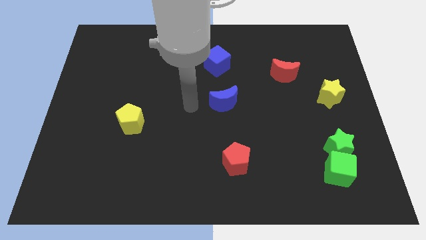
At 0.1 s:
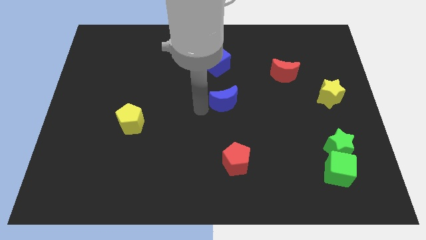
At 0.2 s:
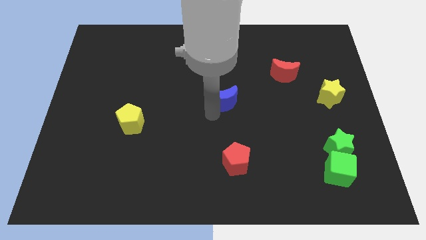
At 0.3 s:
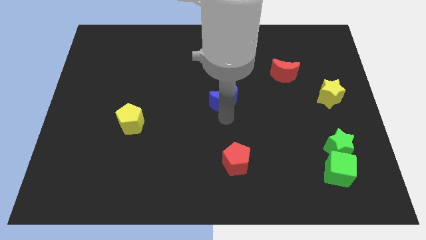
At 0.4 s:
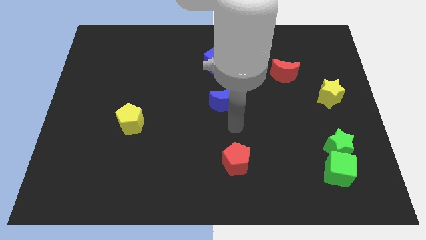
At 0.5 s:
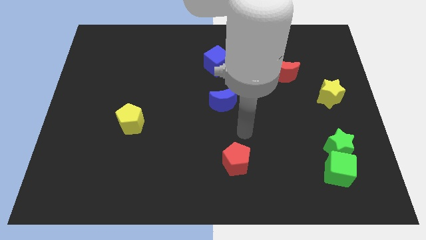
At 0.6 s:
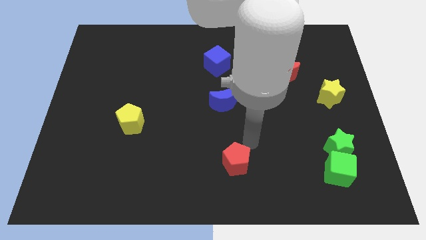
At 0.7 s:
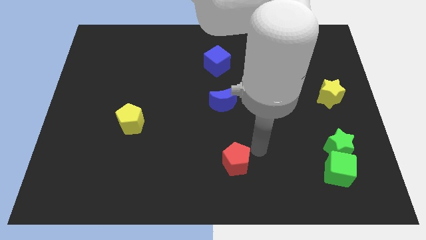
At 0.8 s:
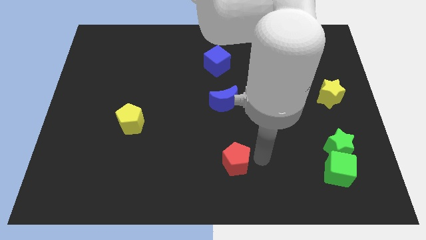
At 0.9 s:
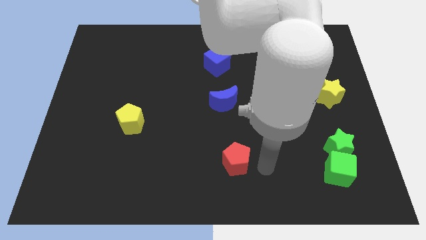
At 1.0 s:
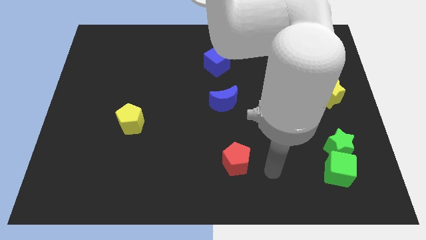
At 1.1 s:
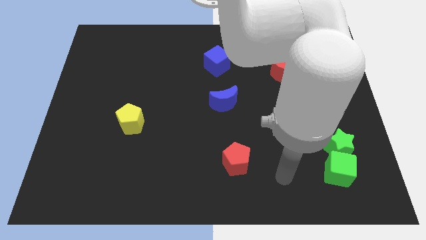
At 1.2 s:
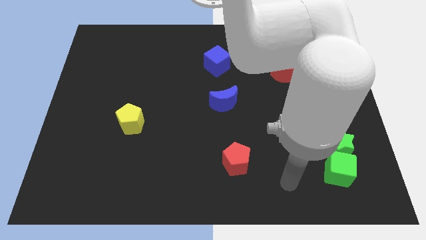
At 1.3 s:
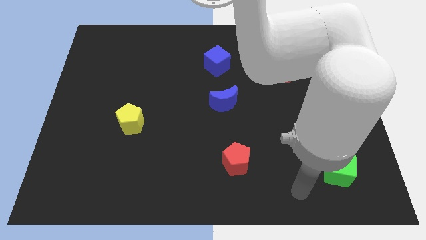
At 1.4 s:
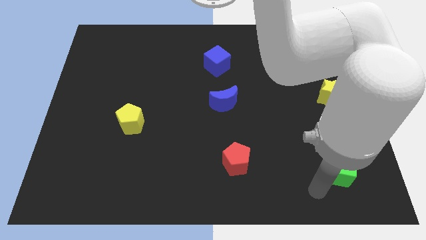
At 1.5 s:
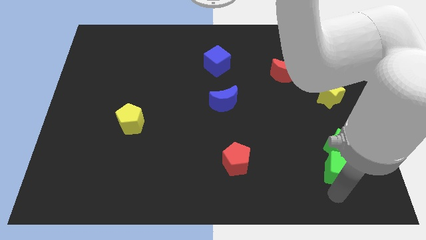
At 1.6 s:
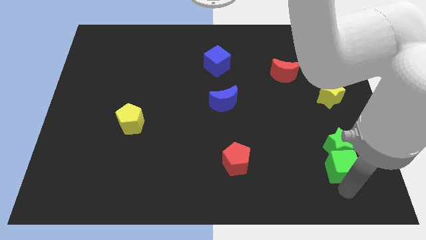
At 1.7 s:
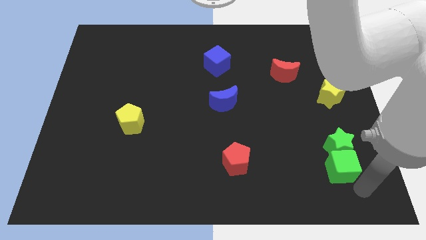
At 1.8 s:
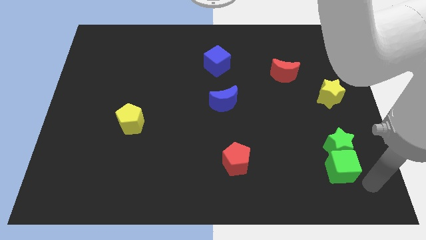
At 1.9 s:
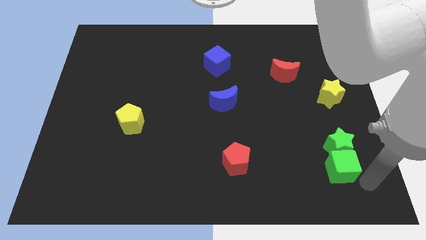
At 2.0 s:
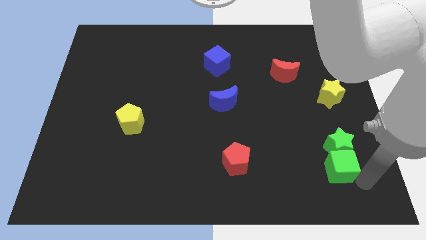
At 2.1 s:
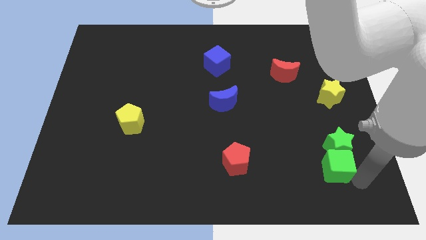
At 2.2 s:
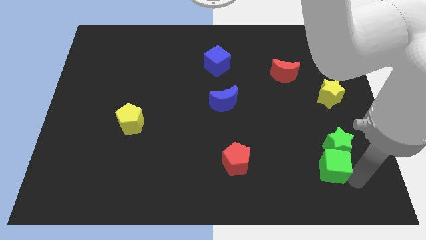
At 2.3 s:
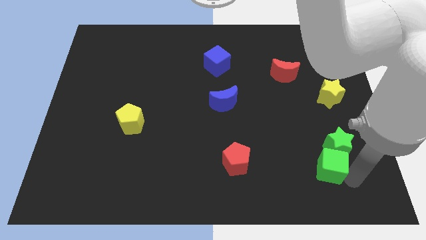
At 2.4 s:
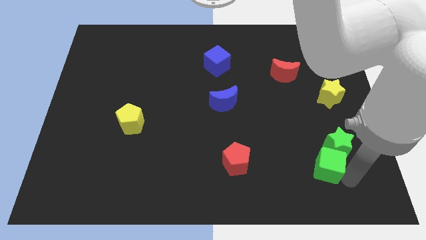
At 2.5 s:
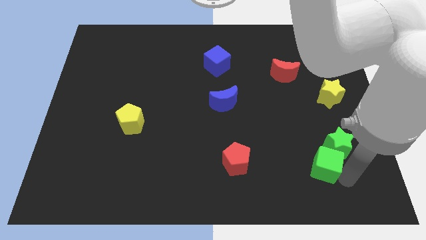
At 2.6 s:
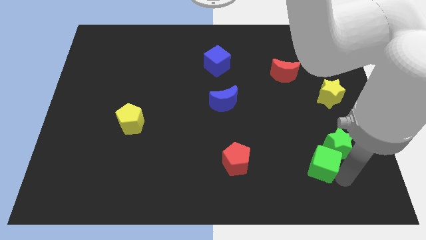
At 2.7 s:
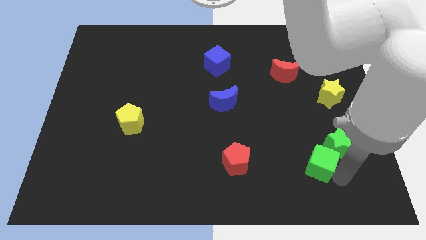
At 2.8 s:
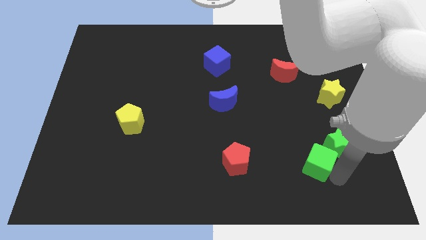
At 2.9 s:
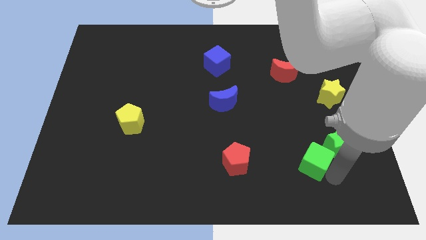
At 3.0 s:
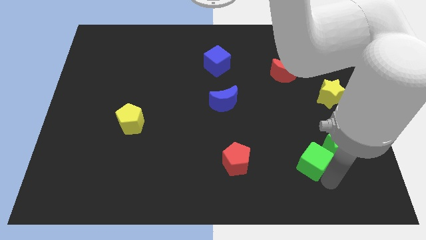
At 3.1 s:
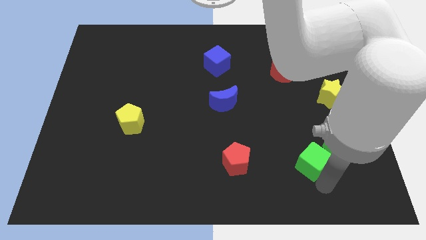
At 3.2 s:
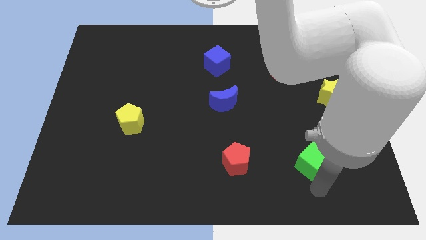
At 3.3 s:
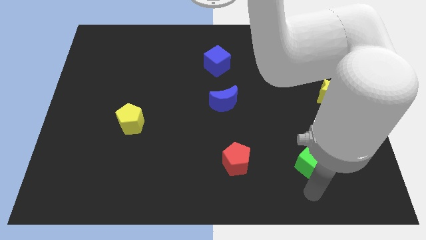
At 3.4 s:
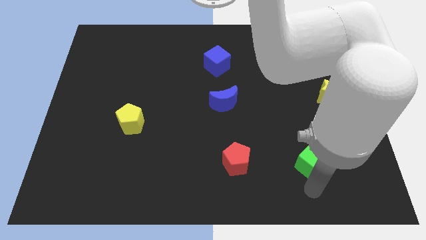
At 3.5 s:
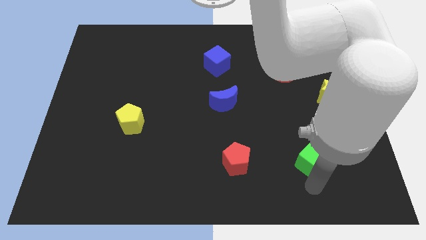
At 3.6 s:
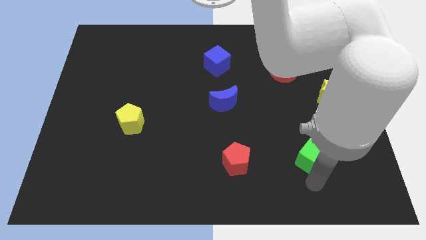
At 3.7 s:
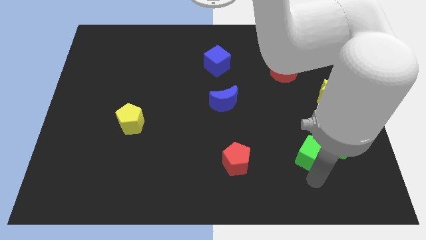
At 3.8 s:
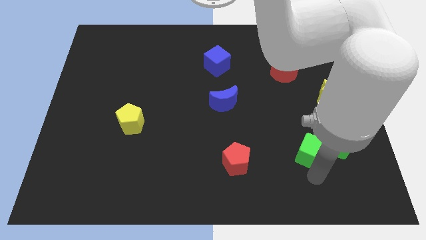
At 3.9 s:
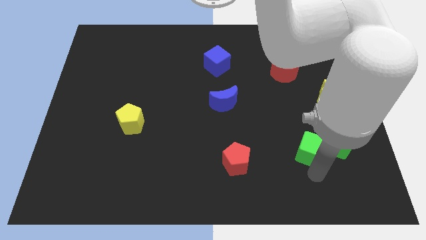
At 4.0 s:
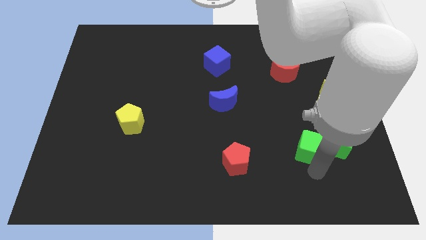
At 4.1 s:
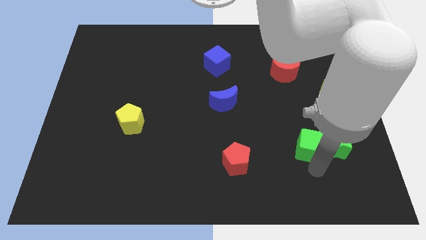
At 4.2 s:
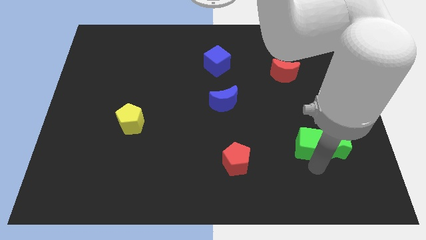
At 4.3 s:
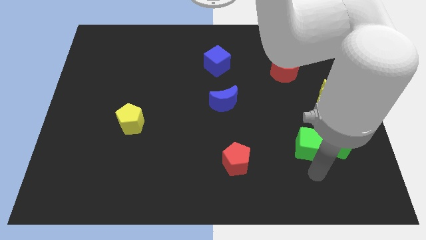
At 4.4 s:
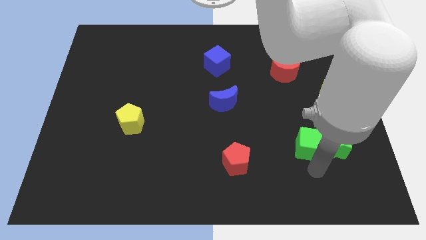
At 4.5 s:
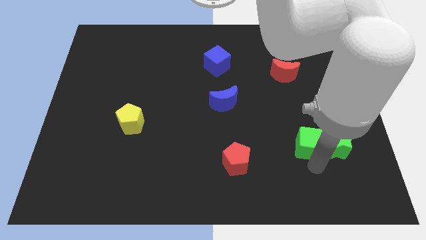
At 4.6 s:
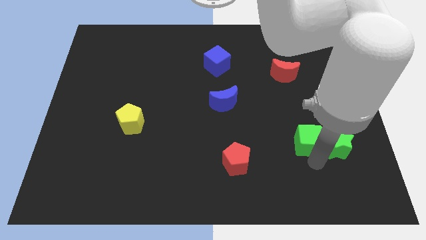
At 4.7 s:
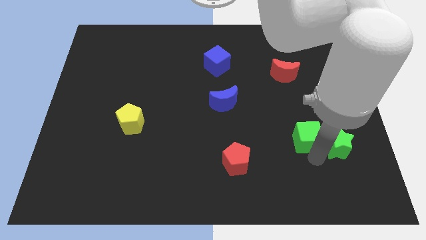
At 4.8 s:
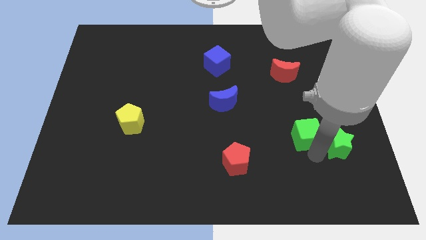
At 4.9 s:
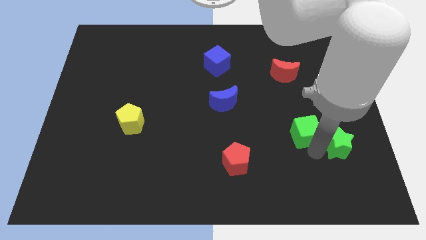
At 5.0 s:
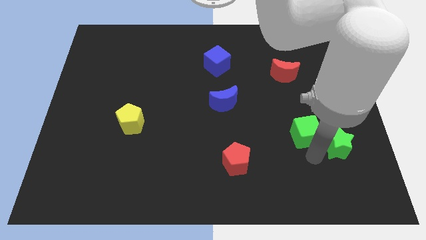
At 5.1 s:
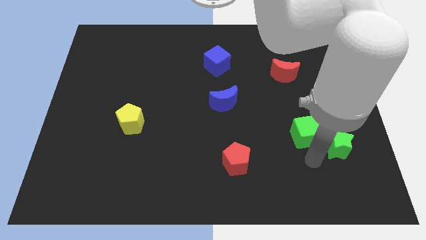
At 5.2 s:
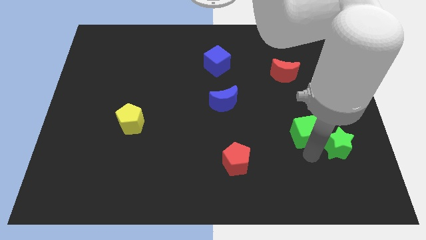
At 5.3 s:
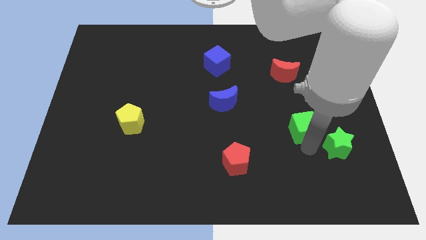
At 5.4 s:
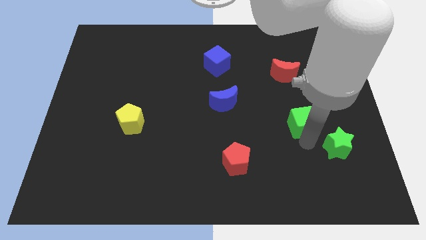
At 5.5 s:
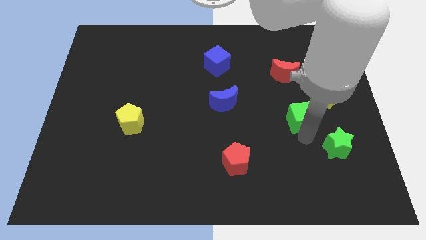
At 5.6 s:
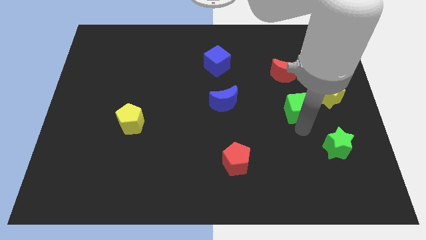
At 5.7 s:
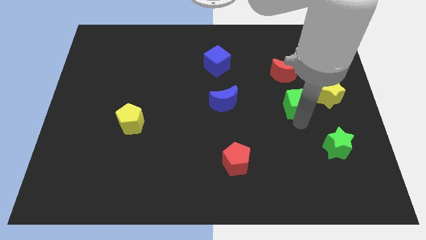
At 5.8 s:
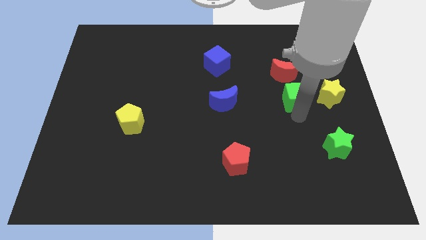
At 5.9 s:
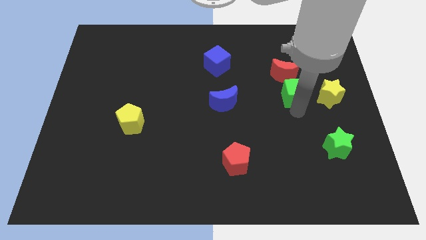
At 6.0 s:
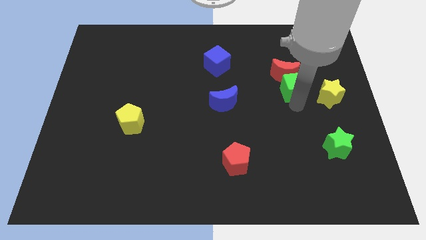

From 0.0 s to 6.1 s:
move the green cube to the red moon

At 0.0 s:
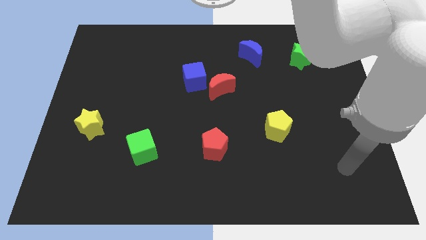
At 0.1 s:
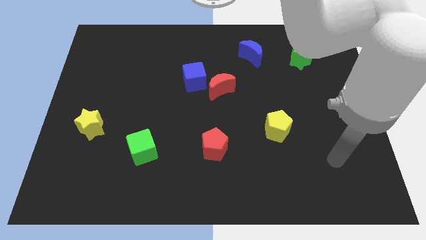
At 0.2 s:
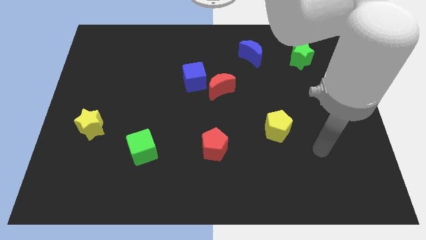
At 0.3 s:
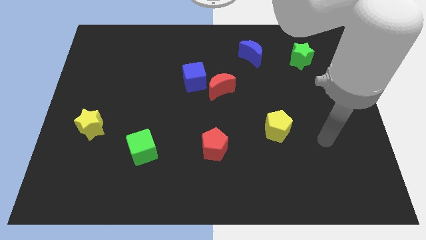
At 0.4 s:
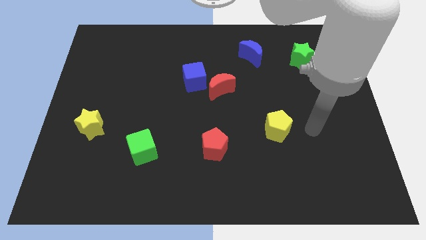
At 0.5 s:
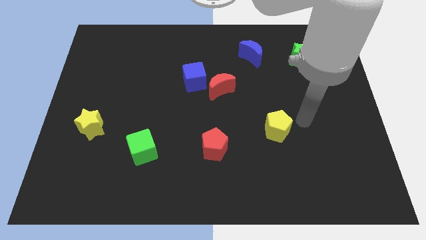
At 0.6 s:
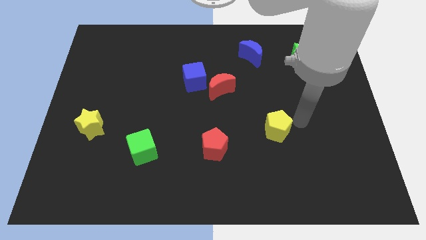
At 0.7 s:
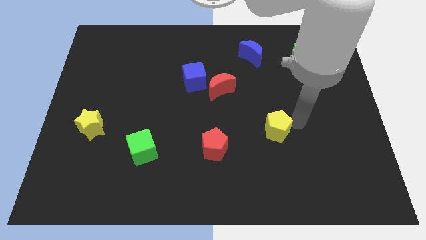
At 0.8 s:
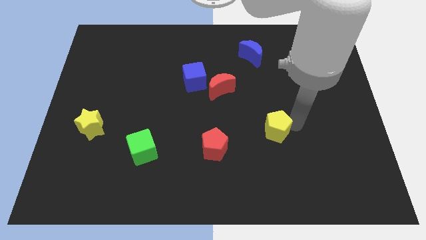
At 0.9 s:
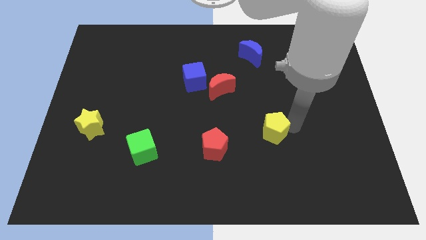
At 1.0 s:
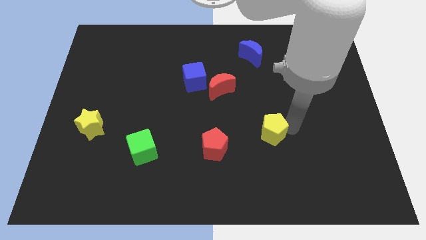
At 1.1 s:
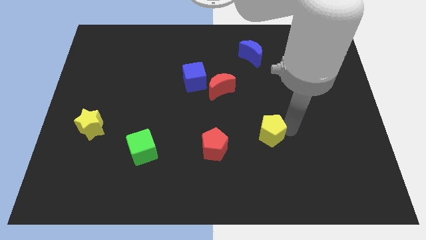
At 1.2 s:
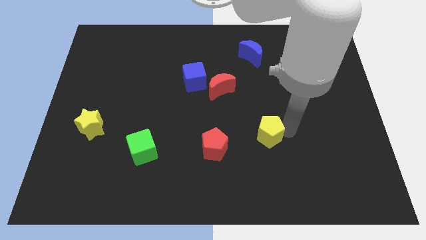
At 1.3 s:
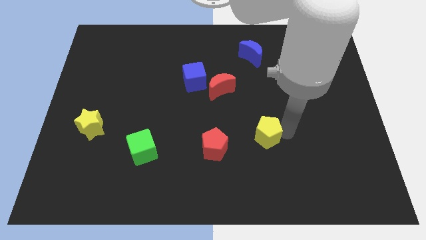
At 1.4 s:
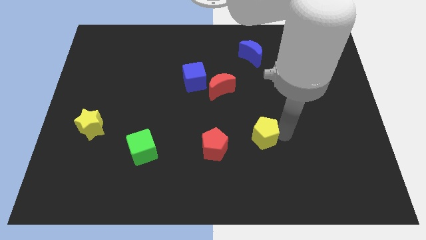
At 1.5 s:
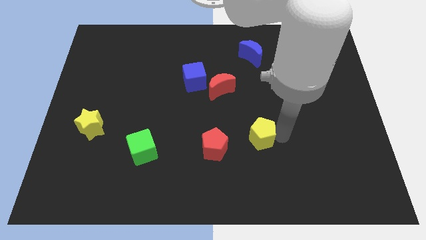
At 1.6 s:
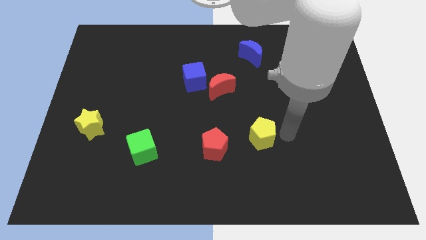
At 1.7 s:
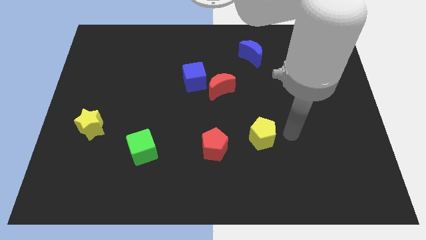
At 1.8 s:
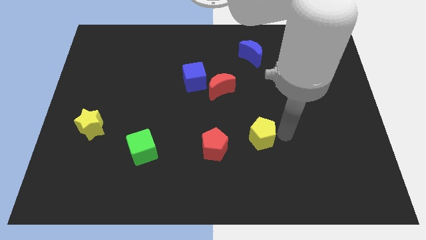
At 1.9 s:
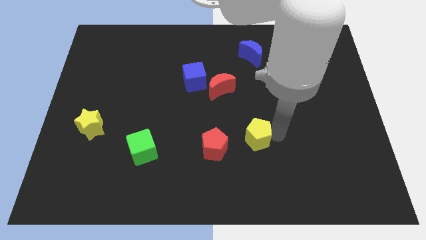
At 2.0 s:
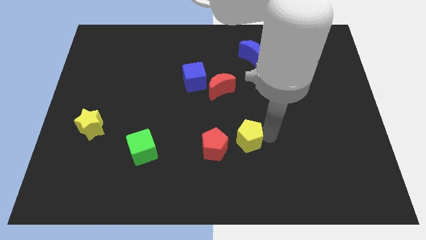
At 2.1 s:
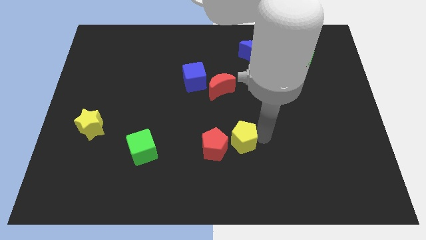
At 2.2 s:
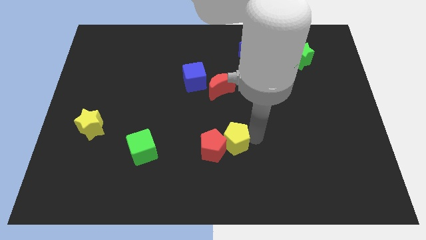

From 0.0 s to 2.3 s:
slide the yellow pentagon close to the red pentagon
